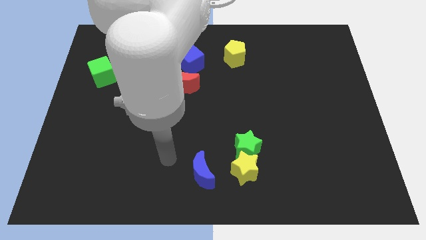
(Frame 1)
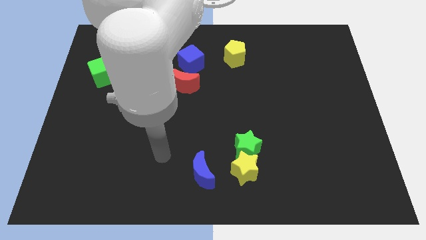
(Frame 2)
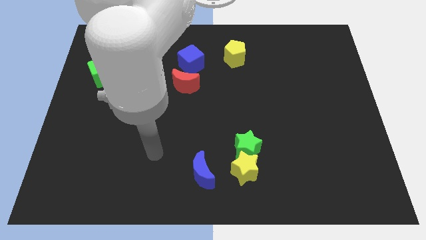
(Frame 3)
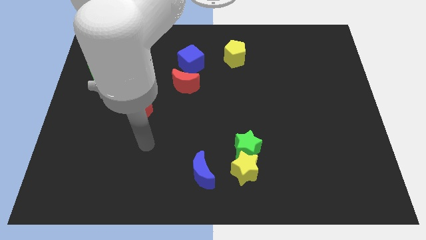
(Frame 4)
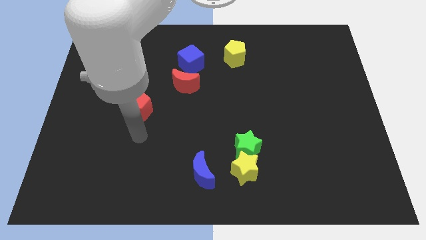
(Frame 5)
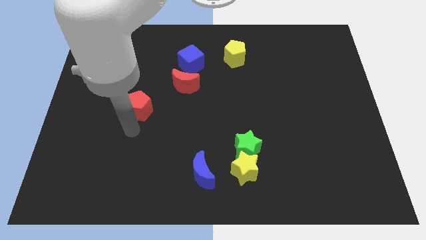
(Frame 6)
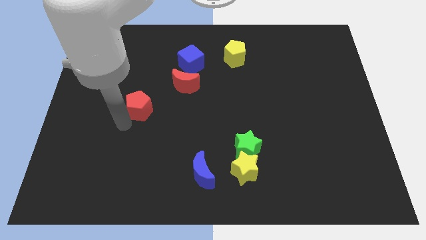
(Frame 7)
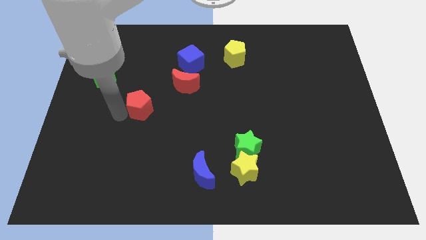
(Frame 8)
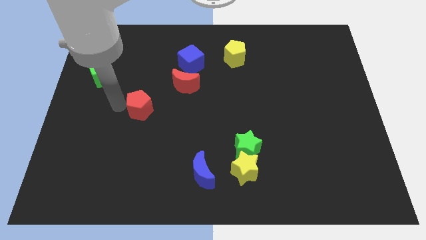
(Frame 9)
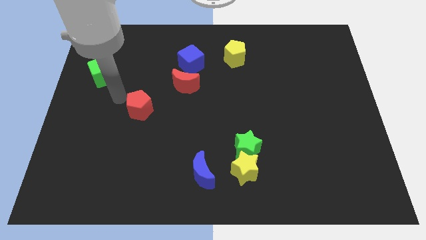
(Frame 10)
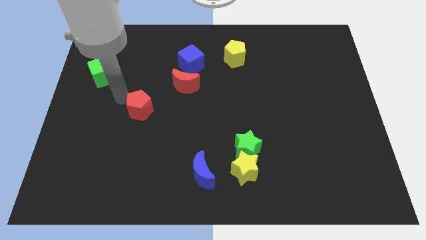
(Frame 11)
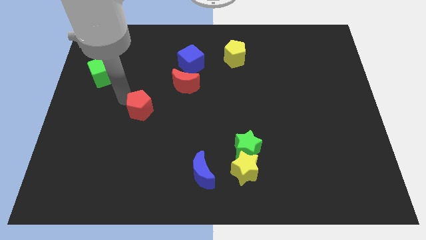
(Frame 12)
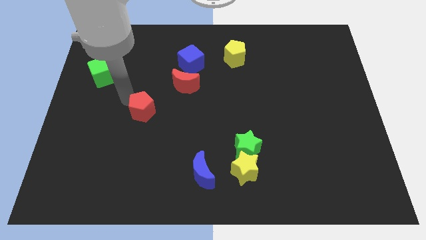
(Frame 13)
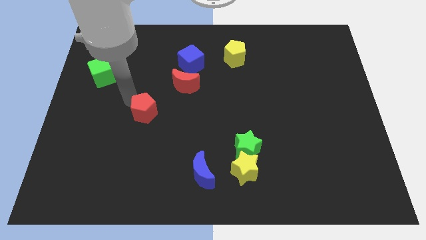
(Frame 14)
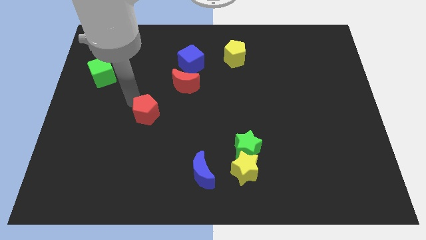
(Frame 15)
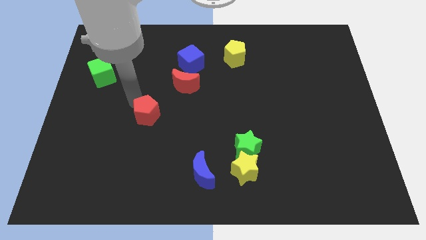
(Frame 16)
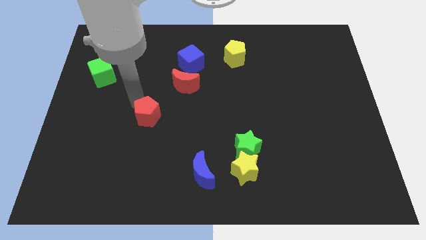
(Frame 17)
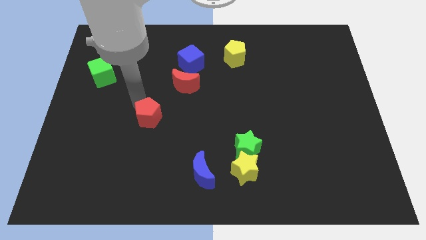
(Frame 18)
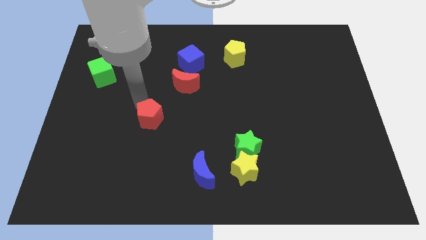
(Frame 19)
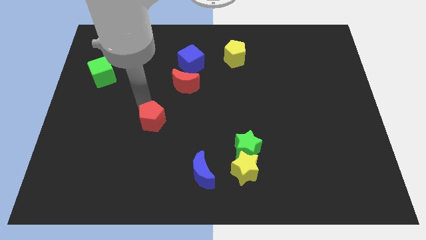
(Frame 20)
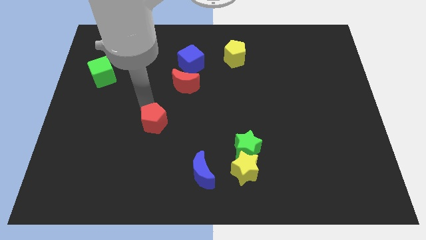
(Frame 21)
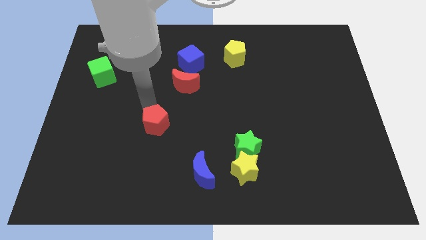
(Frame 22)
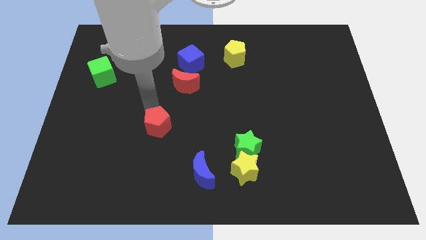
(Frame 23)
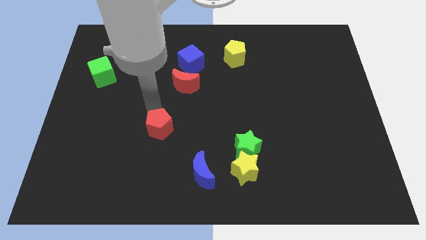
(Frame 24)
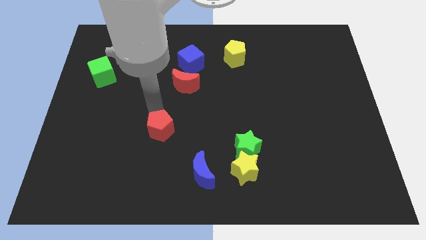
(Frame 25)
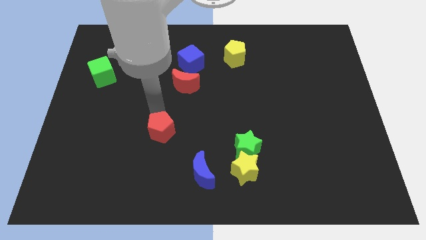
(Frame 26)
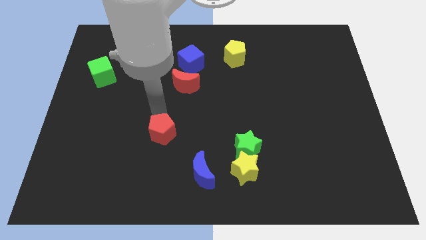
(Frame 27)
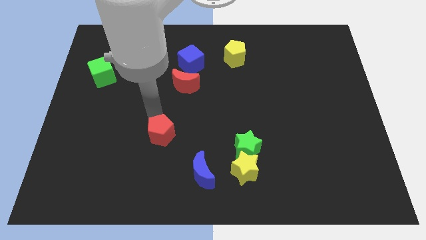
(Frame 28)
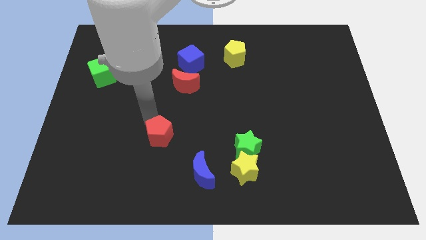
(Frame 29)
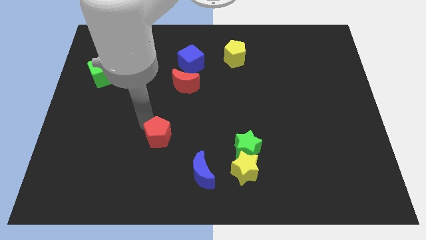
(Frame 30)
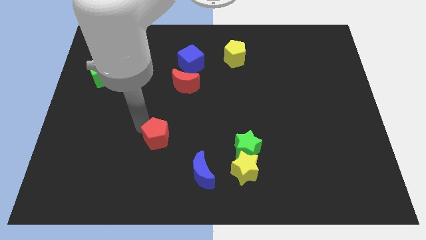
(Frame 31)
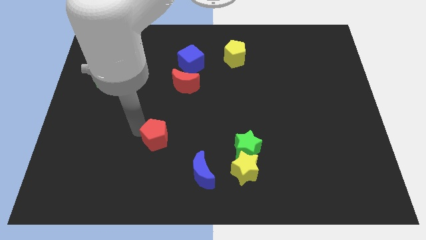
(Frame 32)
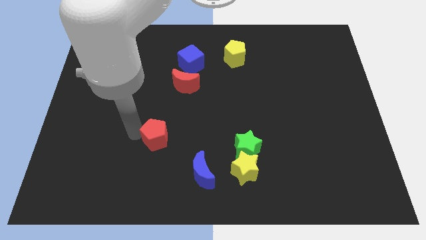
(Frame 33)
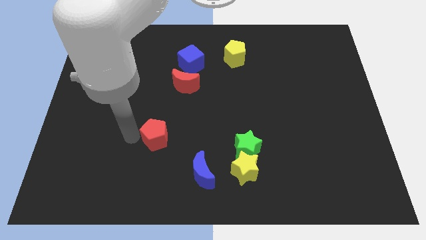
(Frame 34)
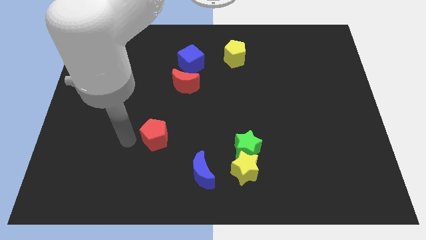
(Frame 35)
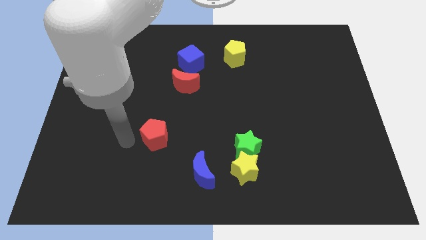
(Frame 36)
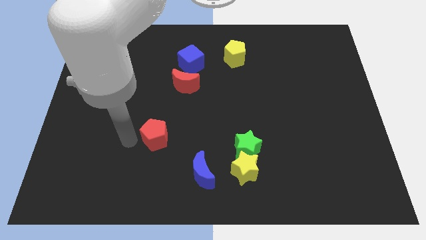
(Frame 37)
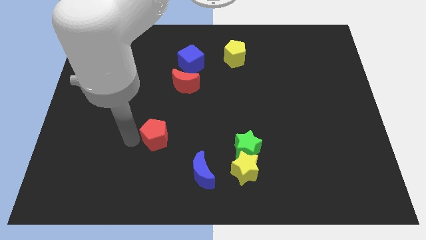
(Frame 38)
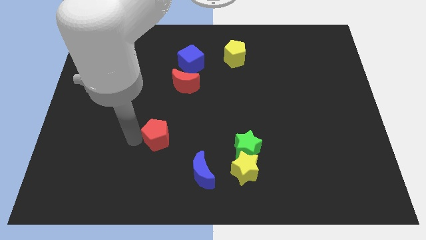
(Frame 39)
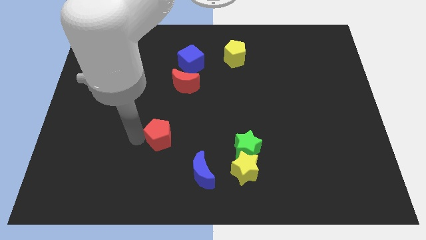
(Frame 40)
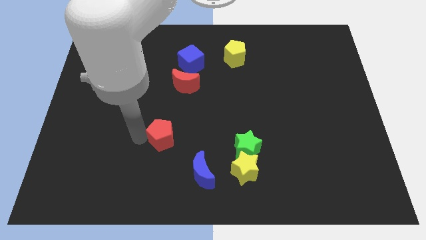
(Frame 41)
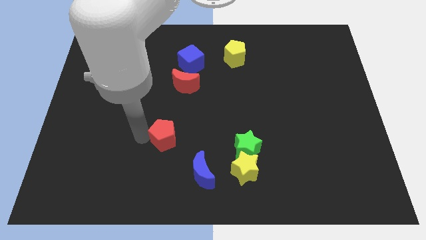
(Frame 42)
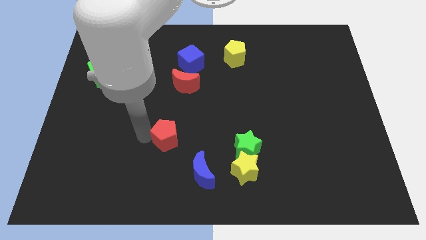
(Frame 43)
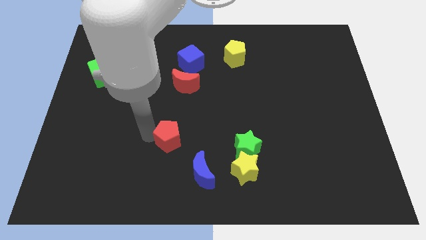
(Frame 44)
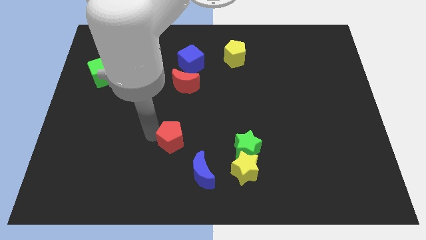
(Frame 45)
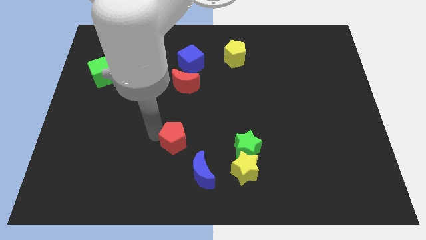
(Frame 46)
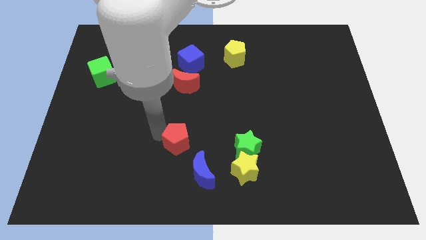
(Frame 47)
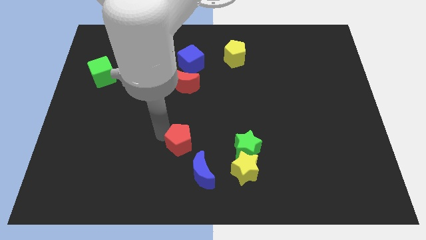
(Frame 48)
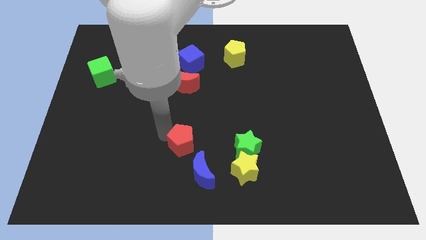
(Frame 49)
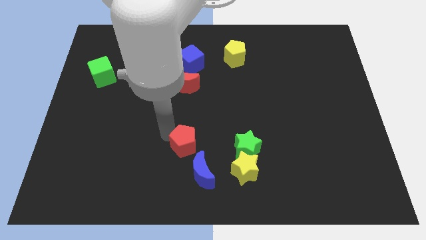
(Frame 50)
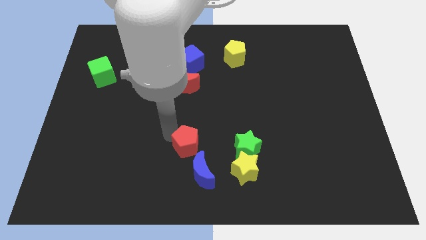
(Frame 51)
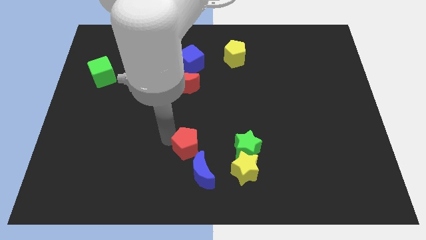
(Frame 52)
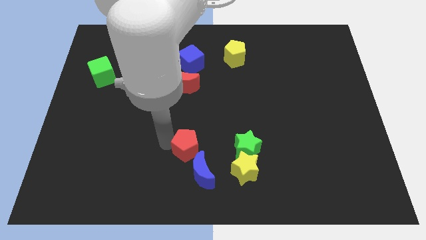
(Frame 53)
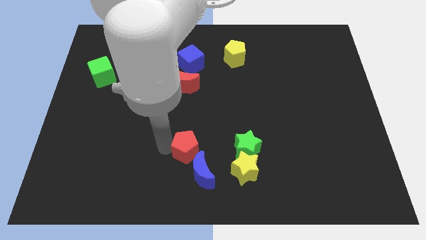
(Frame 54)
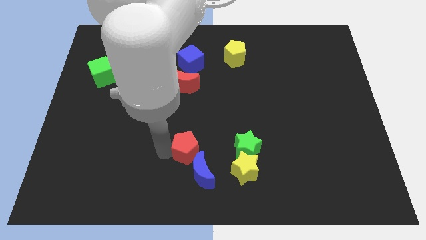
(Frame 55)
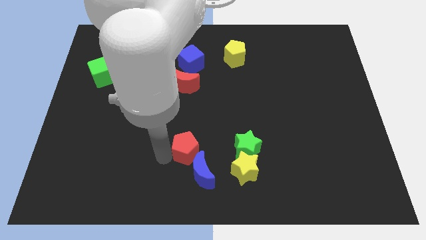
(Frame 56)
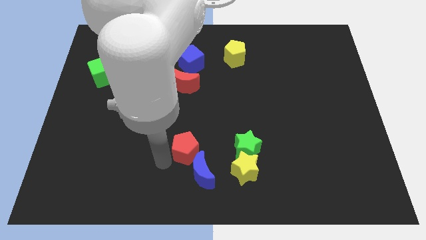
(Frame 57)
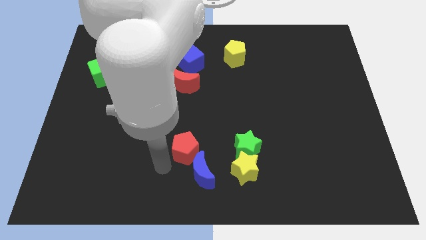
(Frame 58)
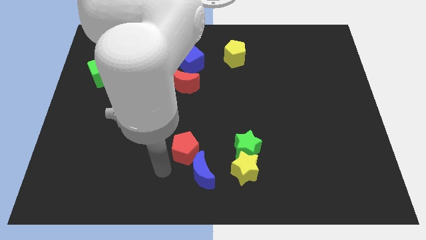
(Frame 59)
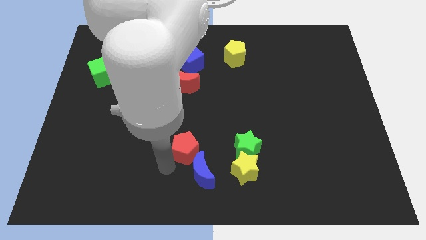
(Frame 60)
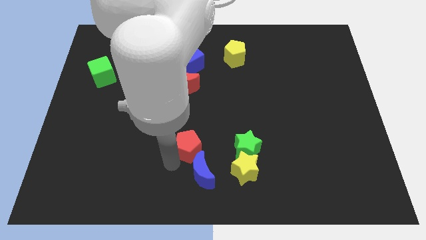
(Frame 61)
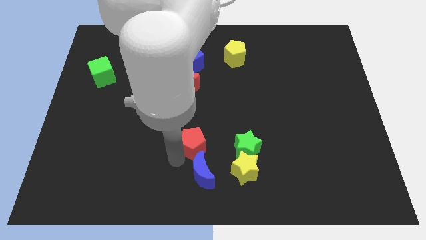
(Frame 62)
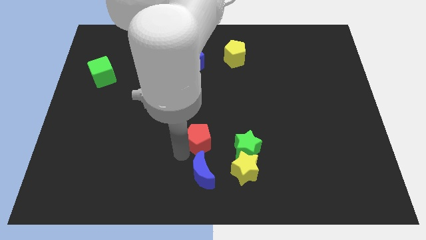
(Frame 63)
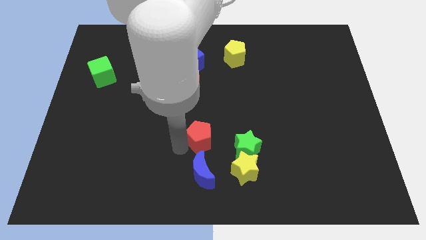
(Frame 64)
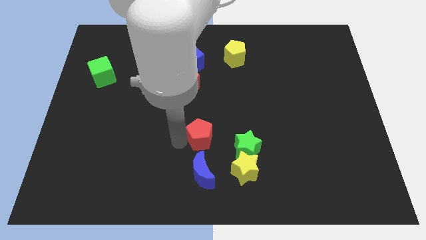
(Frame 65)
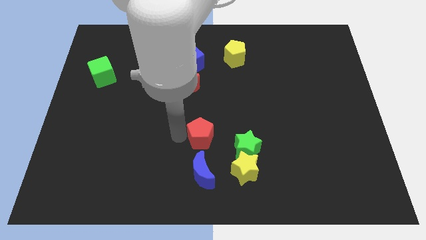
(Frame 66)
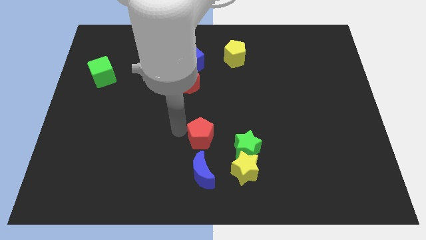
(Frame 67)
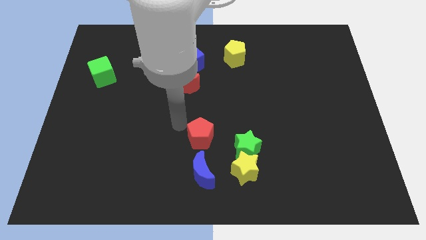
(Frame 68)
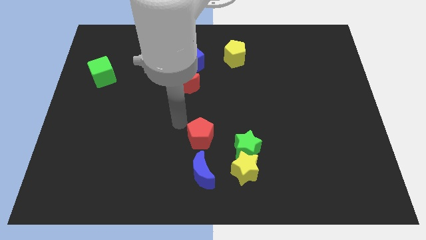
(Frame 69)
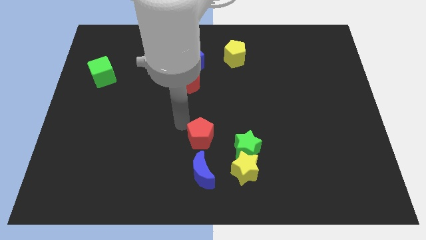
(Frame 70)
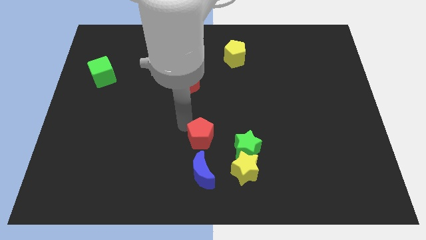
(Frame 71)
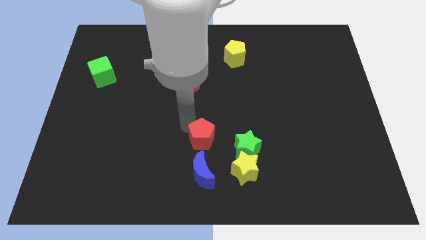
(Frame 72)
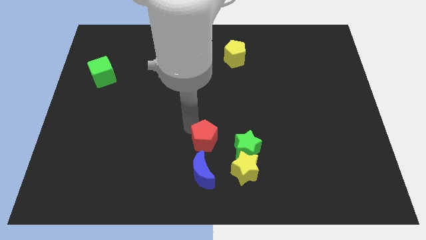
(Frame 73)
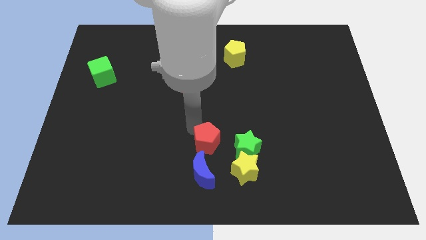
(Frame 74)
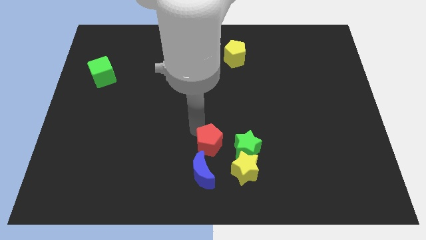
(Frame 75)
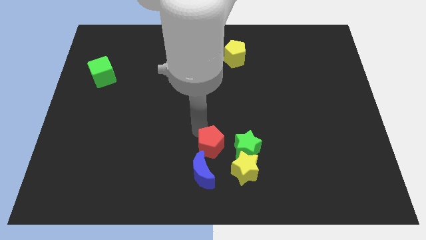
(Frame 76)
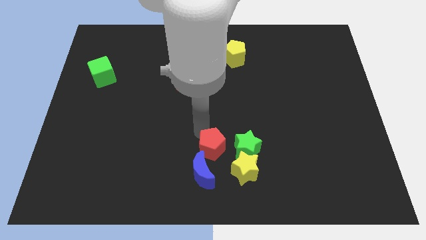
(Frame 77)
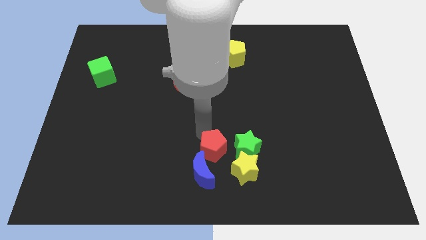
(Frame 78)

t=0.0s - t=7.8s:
move the red pentagon to the bottom left side of the green star
